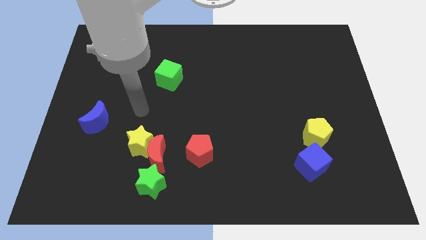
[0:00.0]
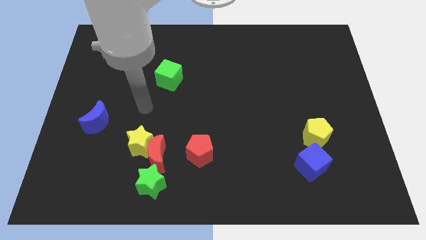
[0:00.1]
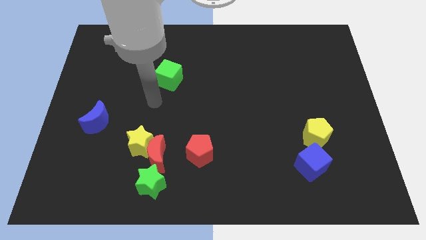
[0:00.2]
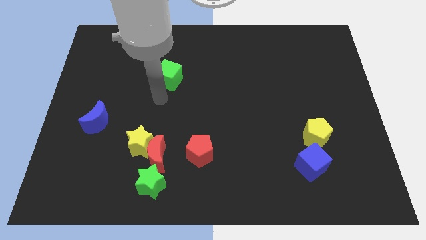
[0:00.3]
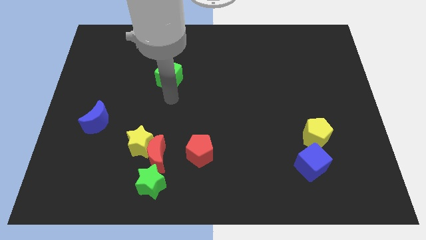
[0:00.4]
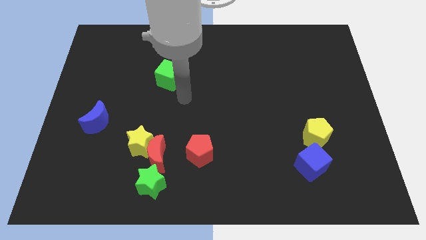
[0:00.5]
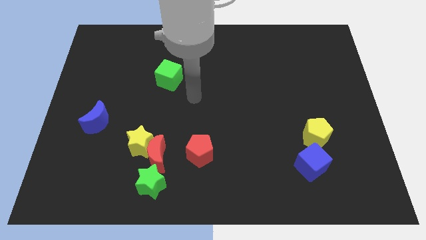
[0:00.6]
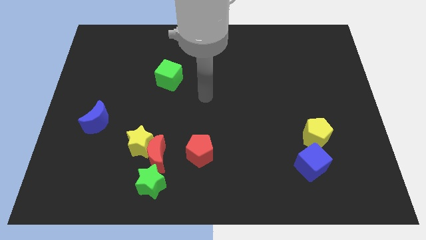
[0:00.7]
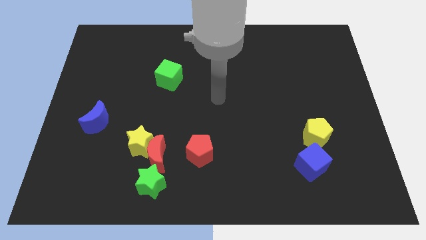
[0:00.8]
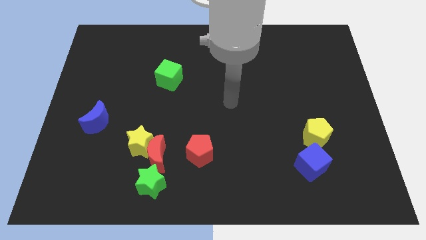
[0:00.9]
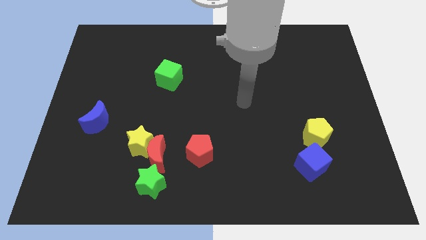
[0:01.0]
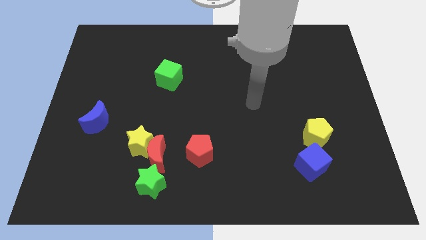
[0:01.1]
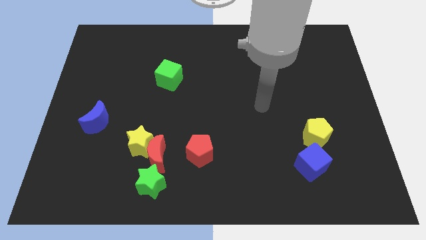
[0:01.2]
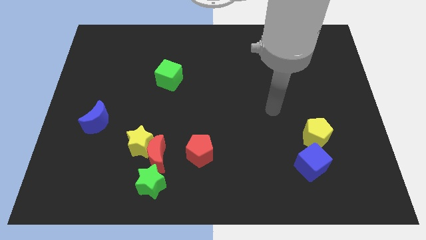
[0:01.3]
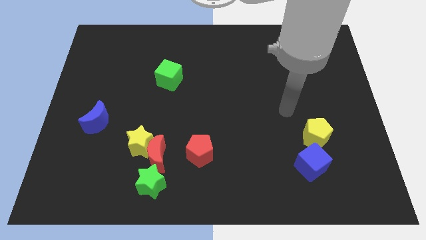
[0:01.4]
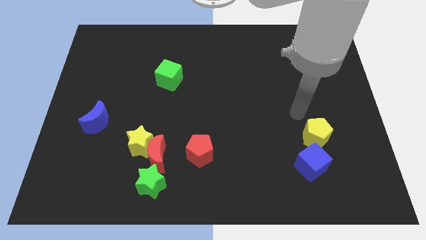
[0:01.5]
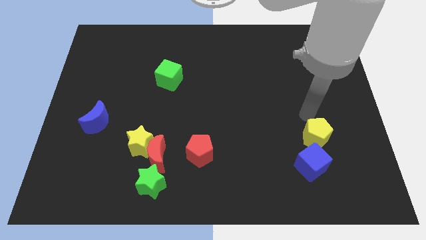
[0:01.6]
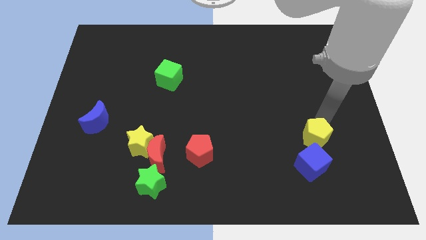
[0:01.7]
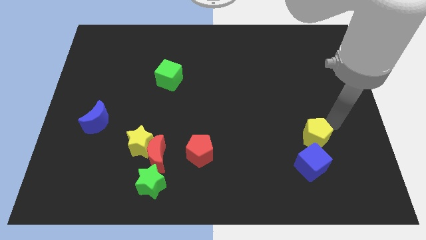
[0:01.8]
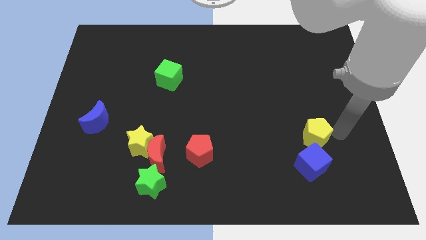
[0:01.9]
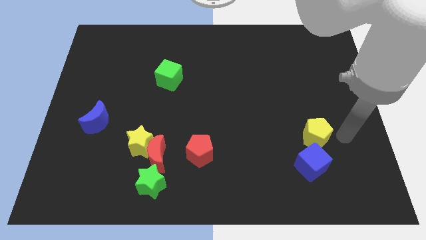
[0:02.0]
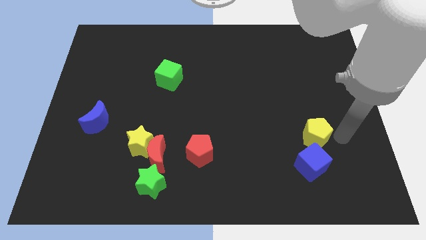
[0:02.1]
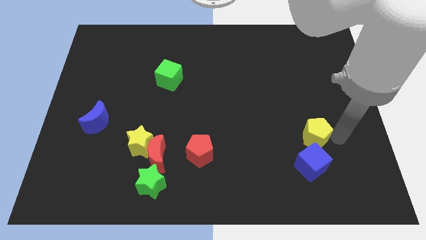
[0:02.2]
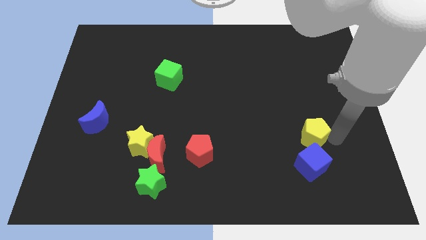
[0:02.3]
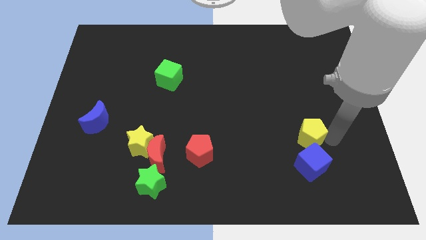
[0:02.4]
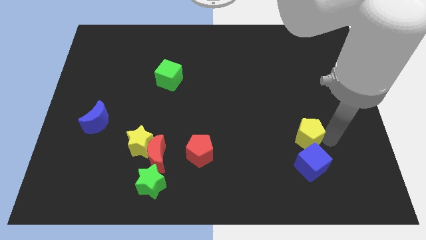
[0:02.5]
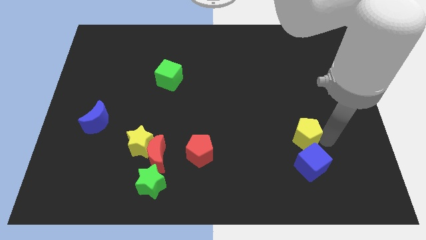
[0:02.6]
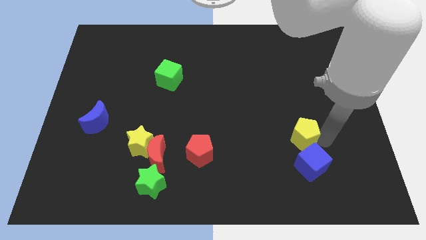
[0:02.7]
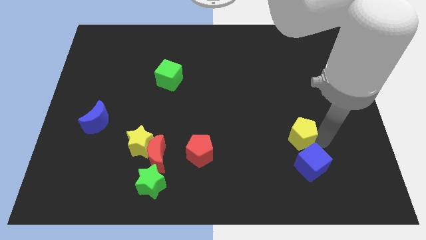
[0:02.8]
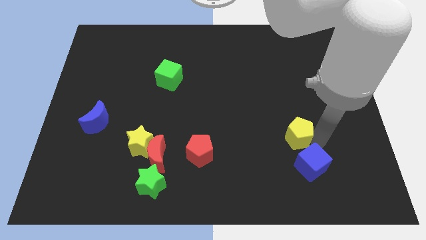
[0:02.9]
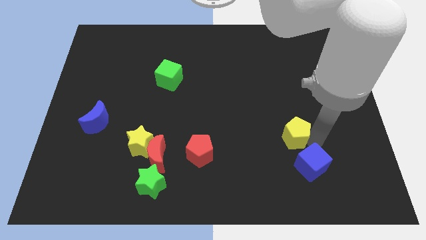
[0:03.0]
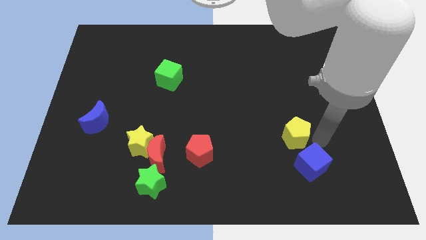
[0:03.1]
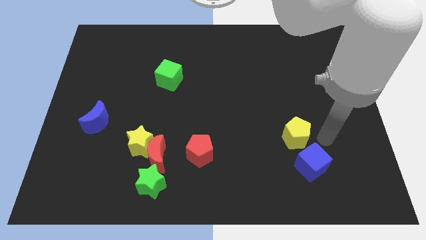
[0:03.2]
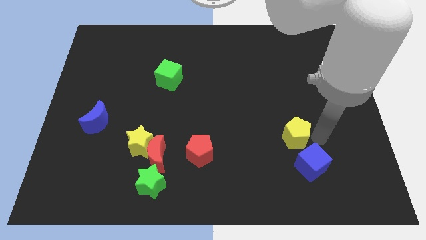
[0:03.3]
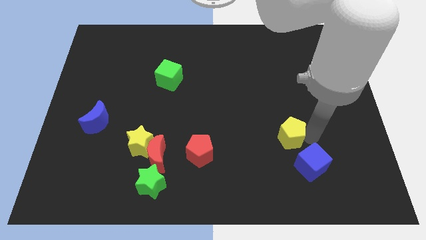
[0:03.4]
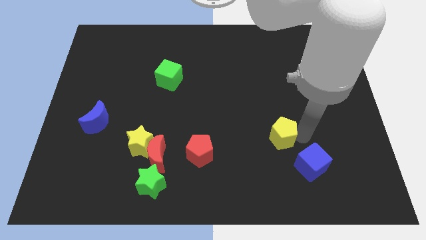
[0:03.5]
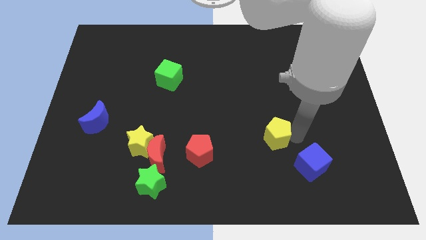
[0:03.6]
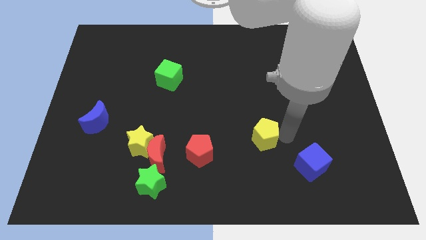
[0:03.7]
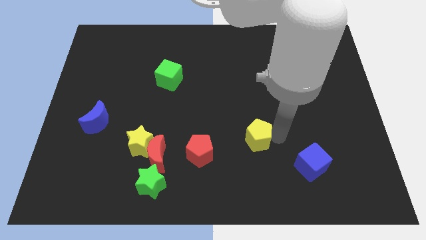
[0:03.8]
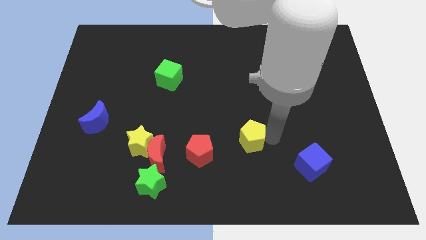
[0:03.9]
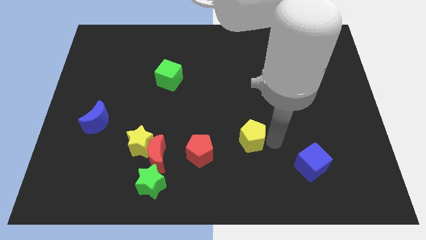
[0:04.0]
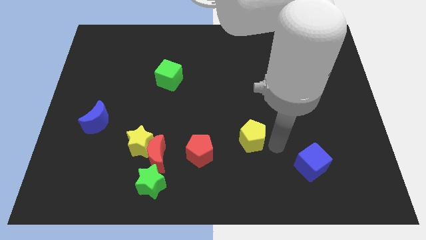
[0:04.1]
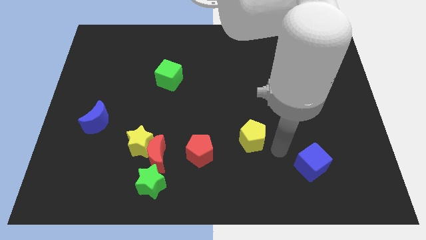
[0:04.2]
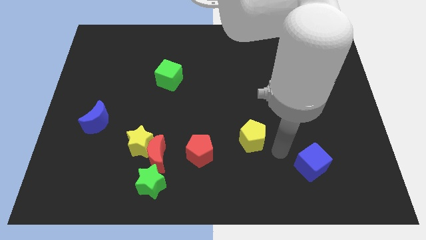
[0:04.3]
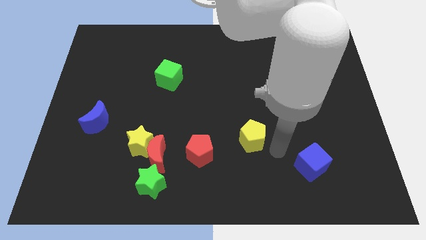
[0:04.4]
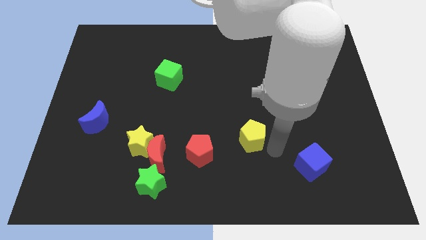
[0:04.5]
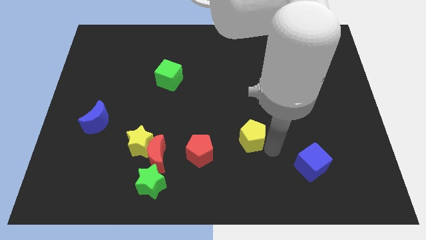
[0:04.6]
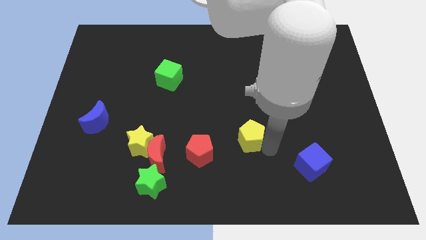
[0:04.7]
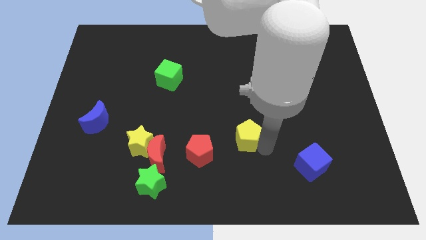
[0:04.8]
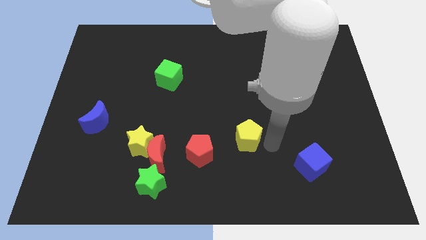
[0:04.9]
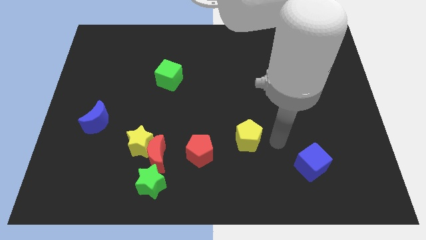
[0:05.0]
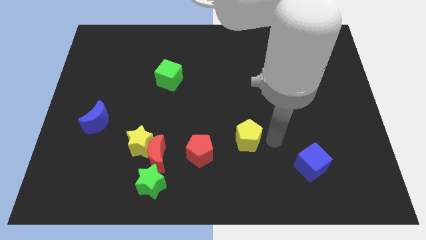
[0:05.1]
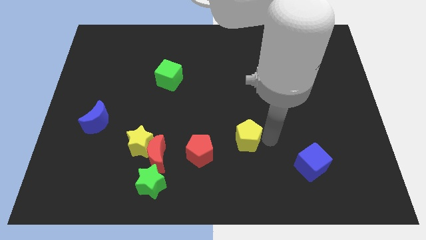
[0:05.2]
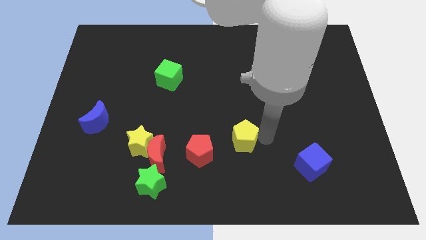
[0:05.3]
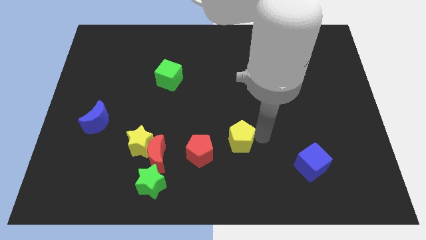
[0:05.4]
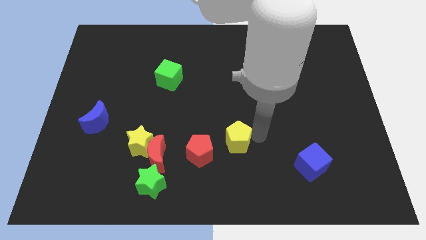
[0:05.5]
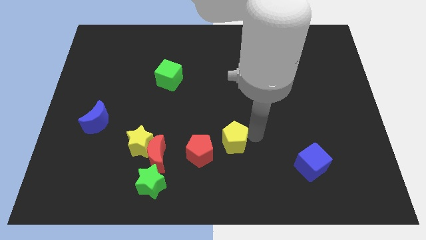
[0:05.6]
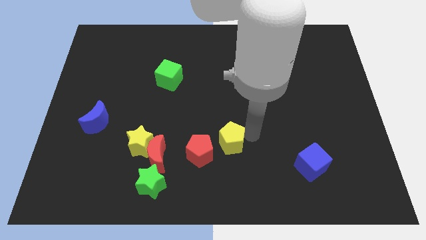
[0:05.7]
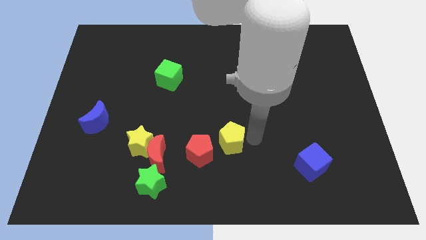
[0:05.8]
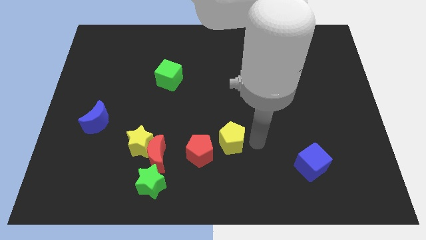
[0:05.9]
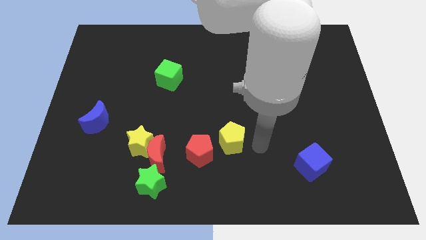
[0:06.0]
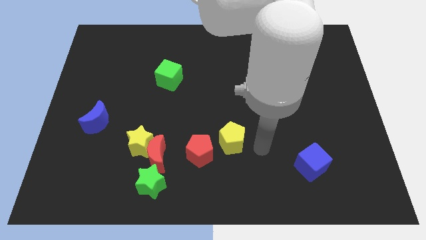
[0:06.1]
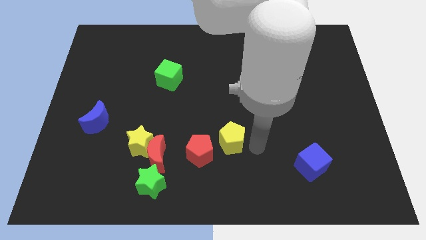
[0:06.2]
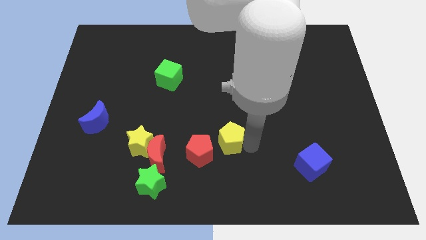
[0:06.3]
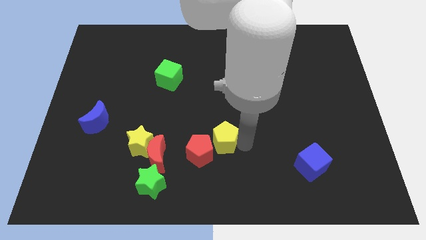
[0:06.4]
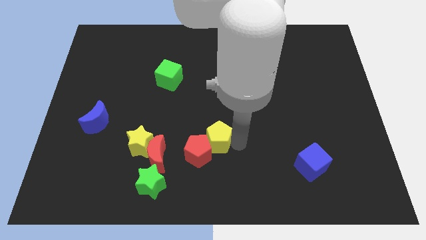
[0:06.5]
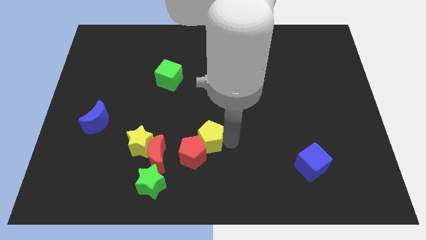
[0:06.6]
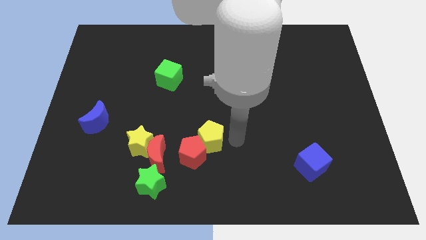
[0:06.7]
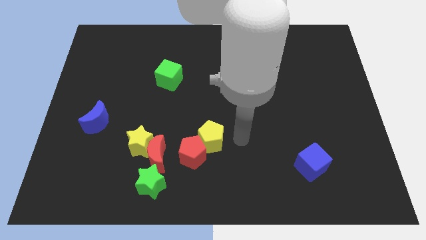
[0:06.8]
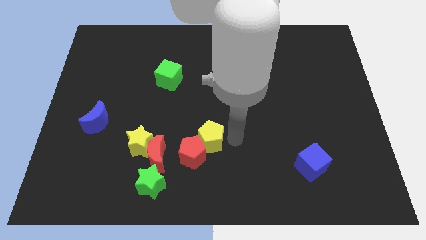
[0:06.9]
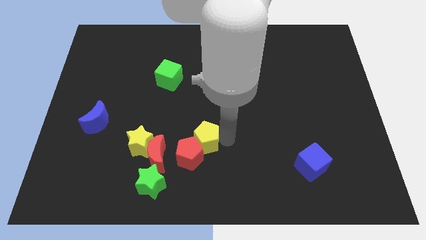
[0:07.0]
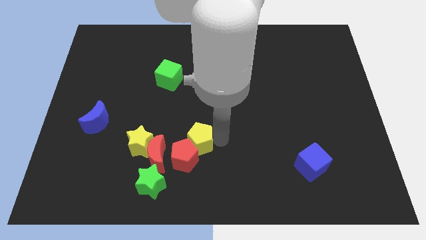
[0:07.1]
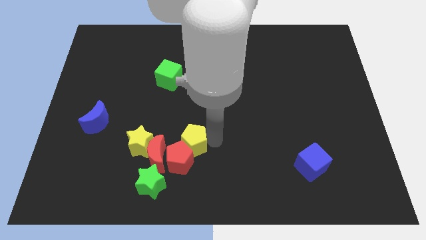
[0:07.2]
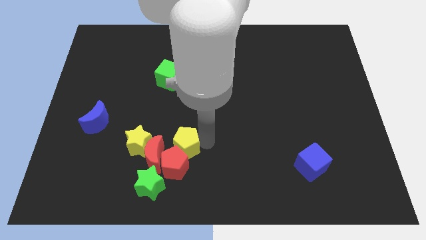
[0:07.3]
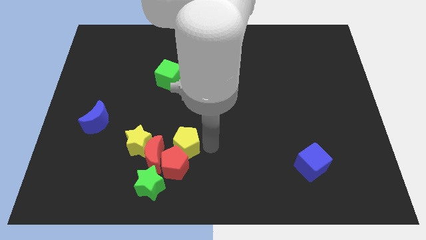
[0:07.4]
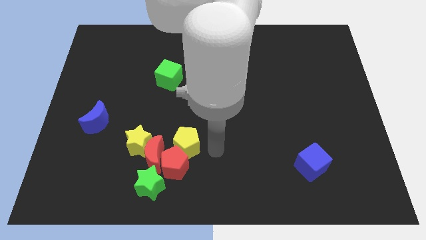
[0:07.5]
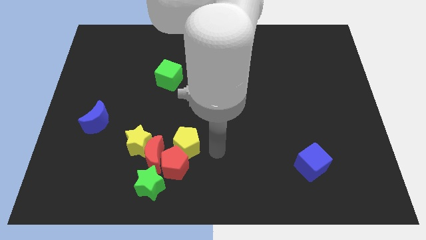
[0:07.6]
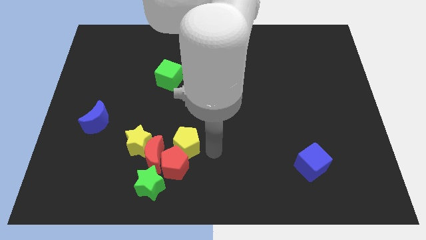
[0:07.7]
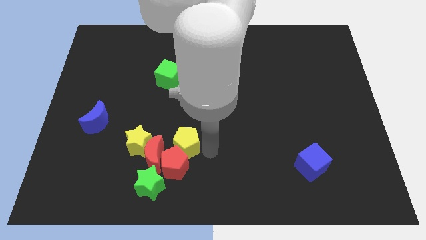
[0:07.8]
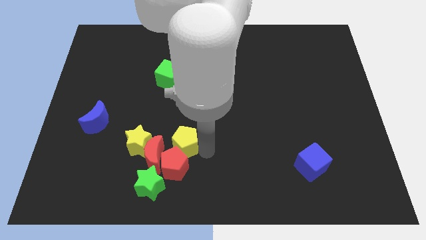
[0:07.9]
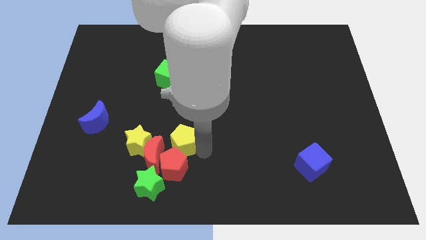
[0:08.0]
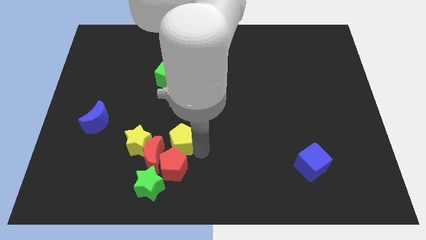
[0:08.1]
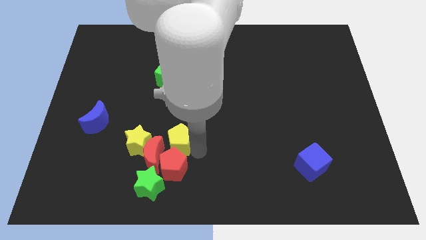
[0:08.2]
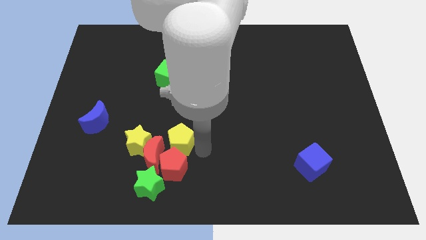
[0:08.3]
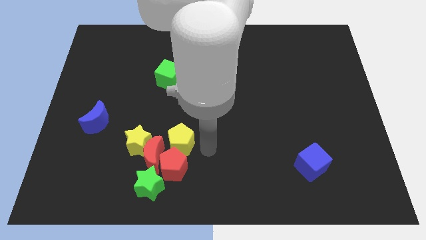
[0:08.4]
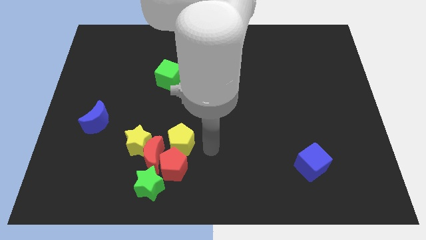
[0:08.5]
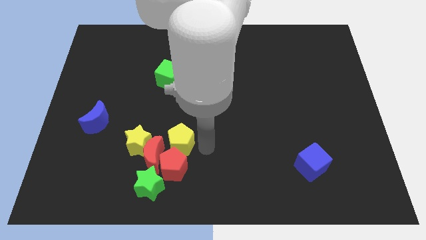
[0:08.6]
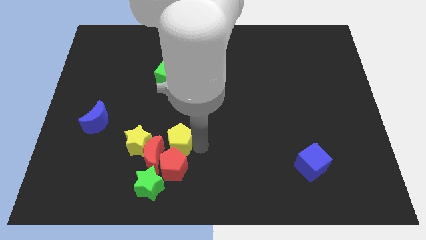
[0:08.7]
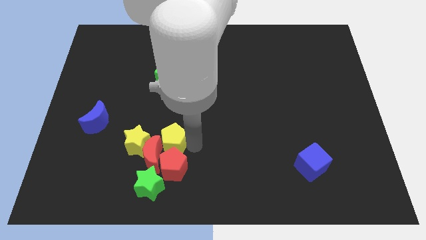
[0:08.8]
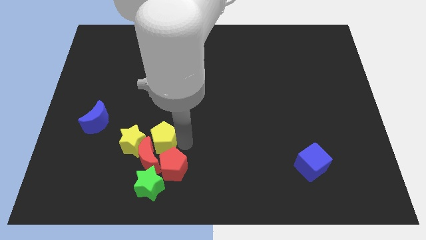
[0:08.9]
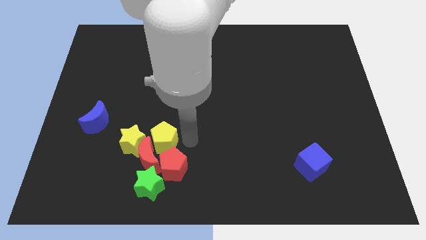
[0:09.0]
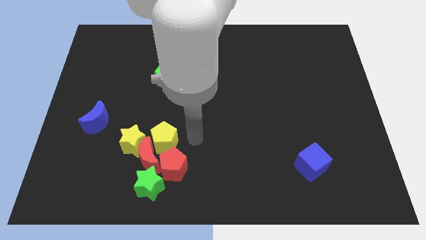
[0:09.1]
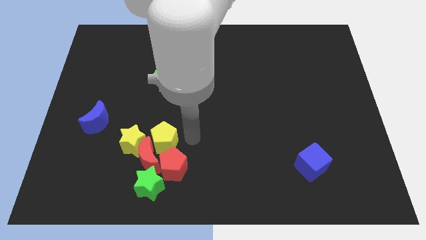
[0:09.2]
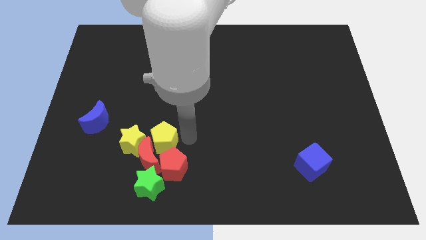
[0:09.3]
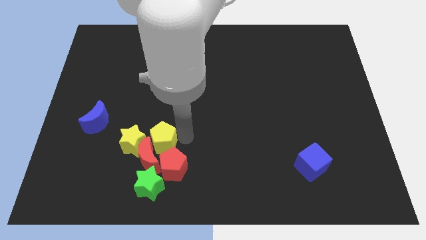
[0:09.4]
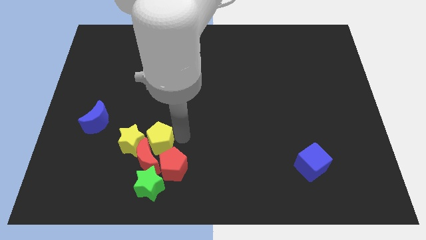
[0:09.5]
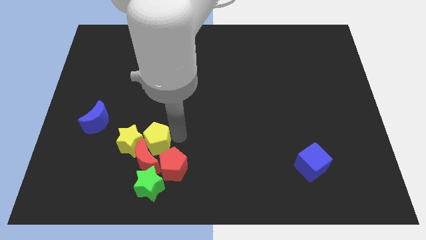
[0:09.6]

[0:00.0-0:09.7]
move the yellow pentagon next to the yellow star
